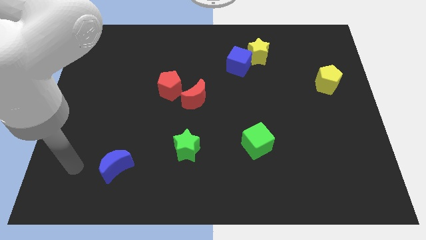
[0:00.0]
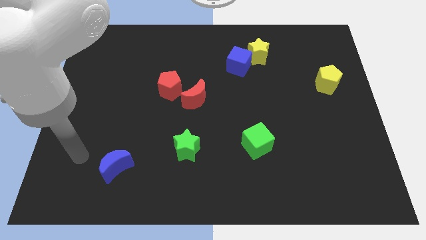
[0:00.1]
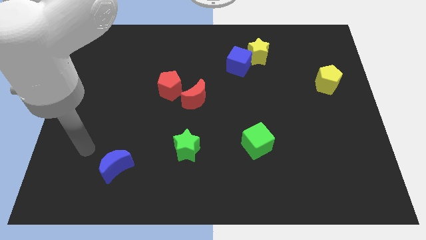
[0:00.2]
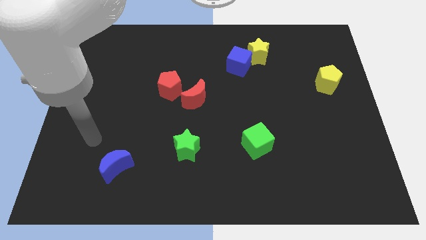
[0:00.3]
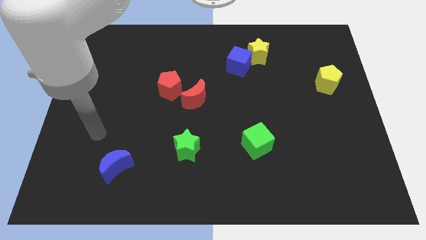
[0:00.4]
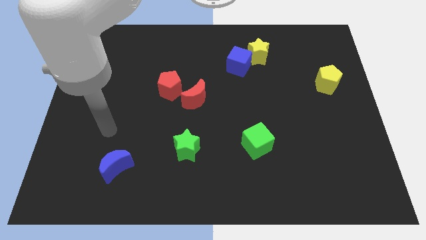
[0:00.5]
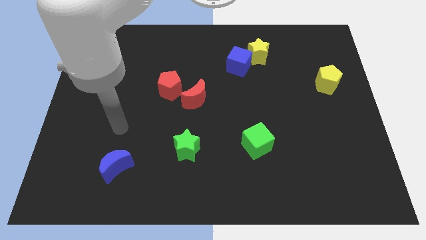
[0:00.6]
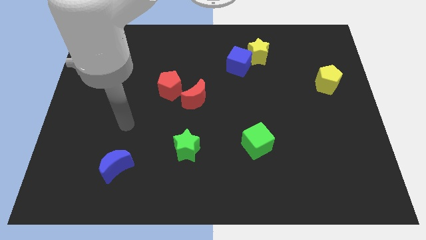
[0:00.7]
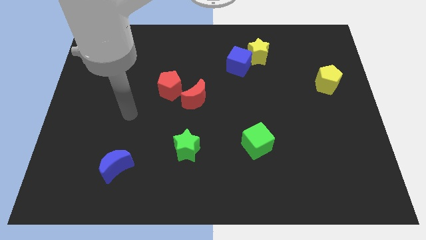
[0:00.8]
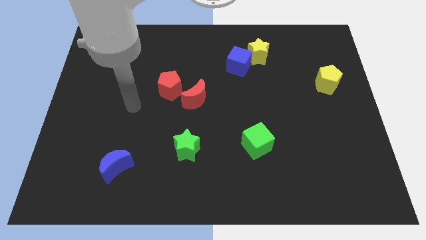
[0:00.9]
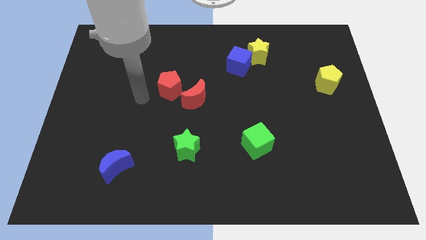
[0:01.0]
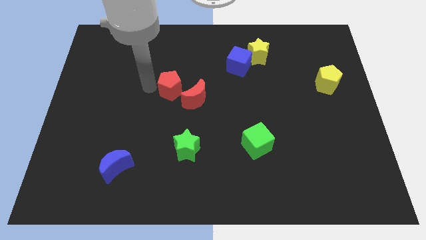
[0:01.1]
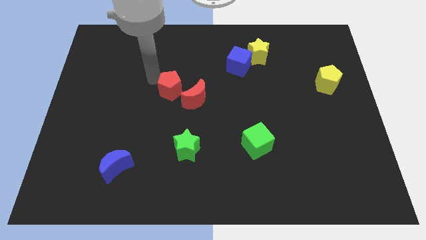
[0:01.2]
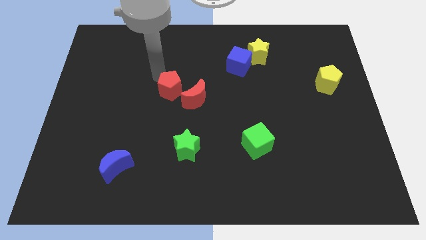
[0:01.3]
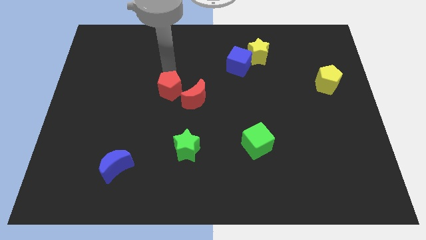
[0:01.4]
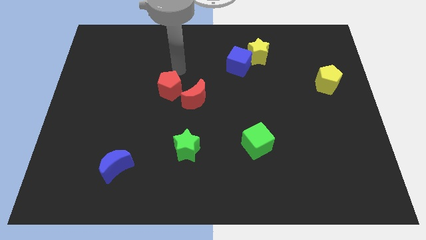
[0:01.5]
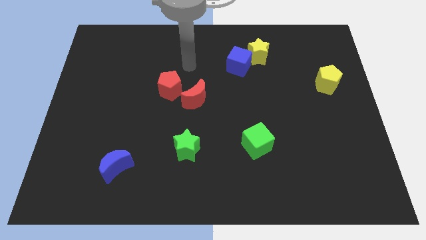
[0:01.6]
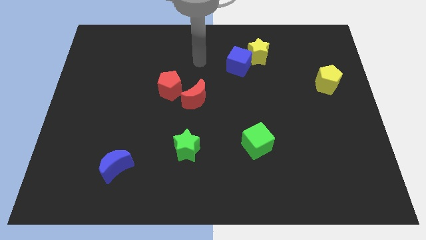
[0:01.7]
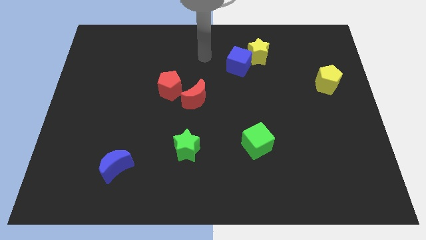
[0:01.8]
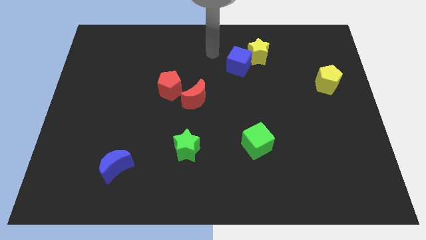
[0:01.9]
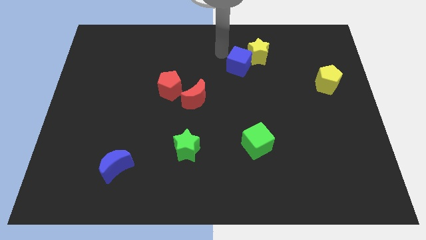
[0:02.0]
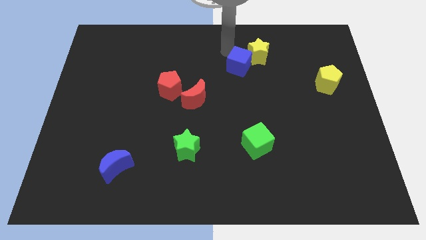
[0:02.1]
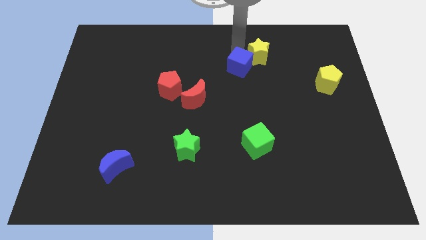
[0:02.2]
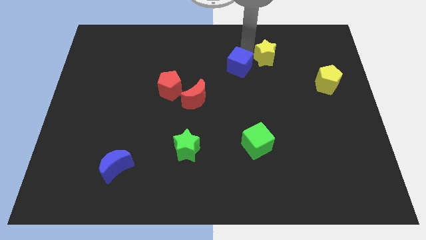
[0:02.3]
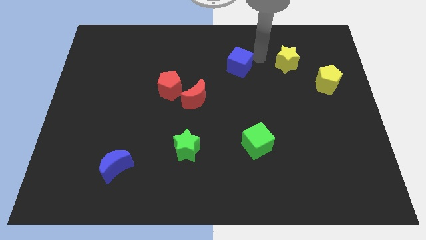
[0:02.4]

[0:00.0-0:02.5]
pull the blue cube apart from the yellow star

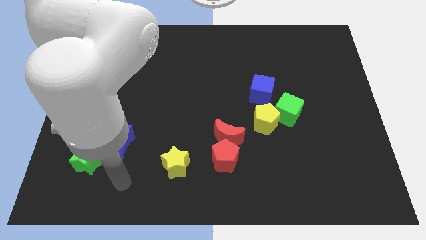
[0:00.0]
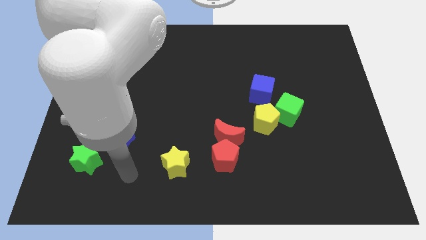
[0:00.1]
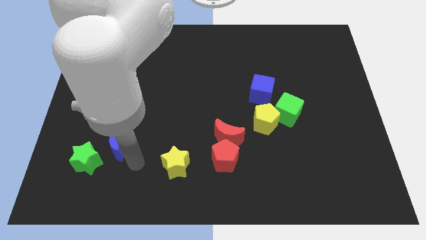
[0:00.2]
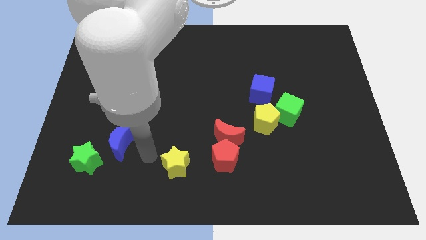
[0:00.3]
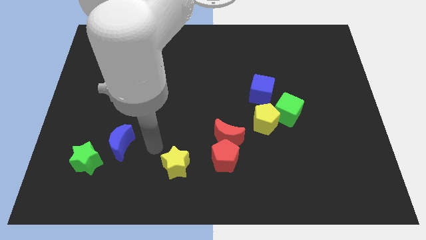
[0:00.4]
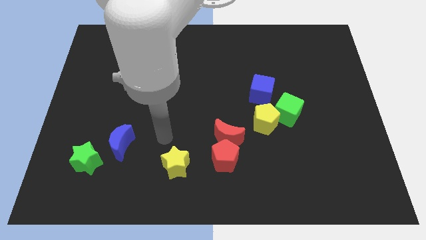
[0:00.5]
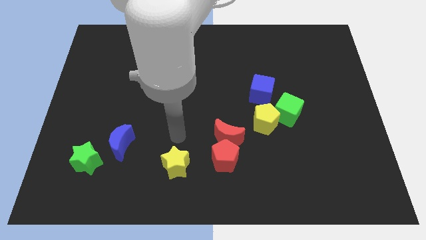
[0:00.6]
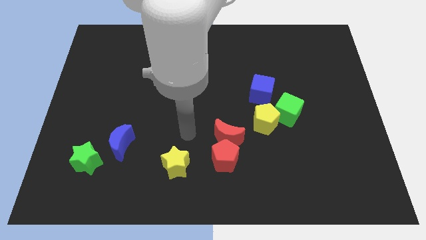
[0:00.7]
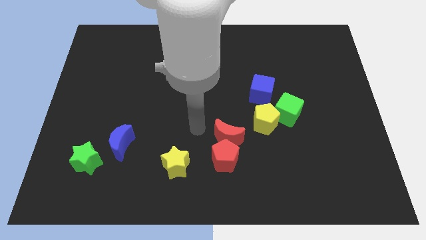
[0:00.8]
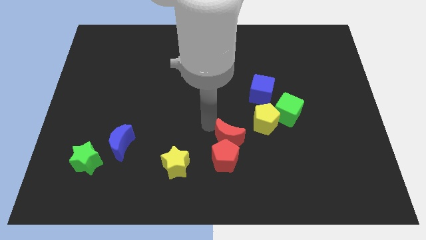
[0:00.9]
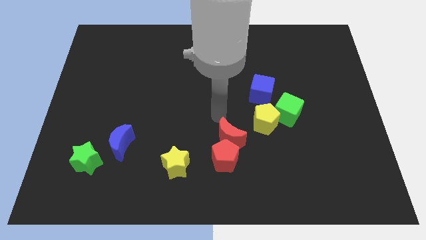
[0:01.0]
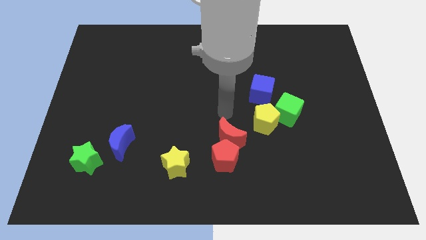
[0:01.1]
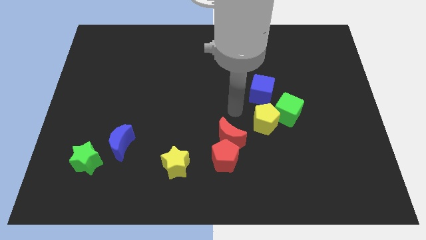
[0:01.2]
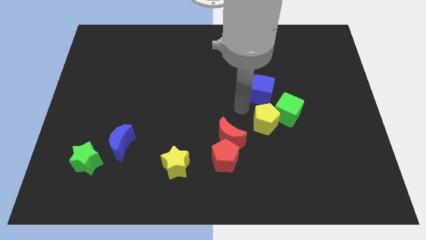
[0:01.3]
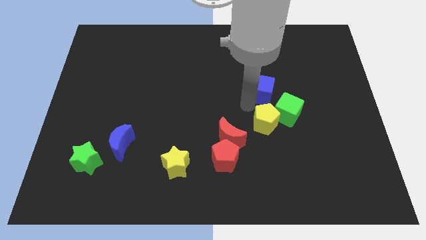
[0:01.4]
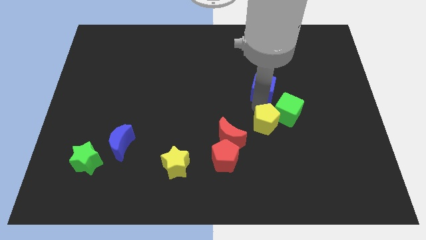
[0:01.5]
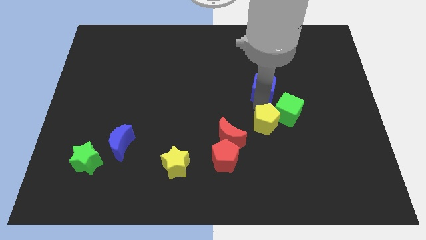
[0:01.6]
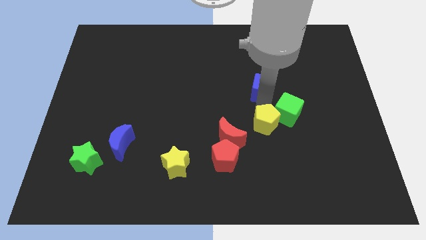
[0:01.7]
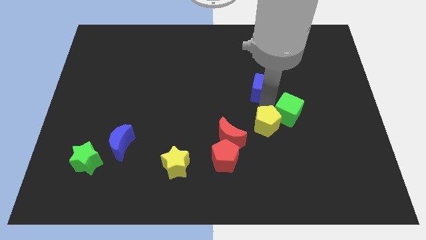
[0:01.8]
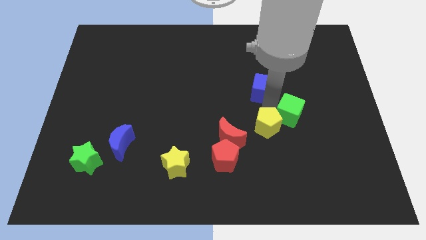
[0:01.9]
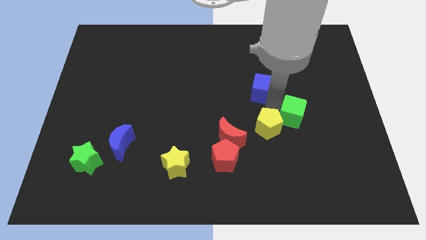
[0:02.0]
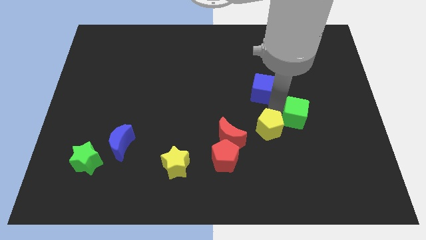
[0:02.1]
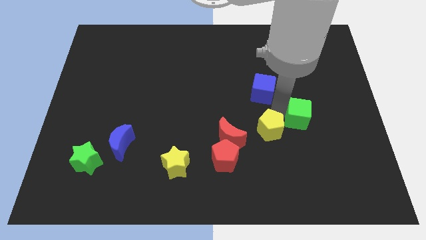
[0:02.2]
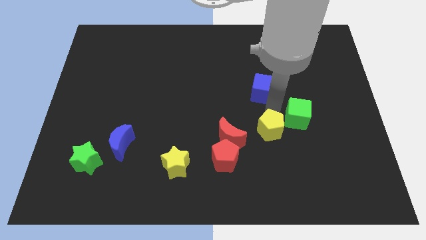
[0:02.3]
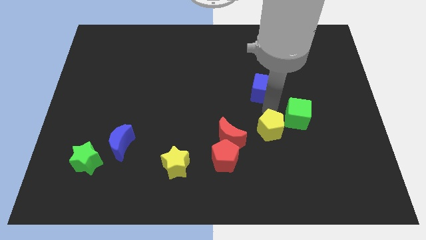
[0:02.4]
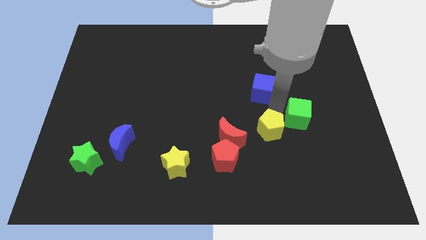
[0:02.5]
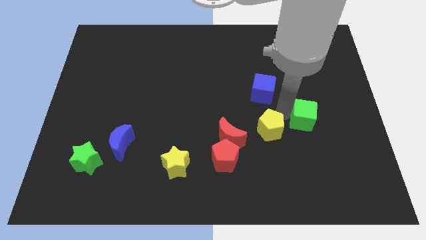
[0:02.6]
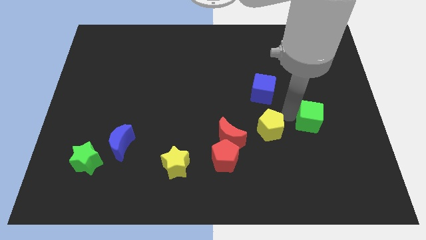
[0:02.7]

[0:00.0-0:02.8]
separate the green cube from the yellow pentagon and blue cube

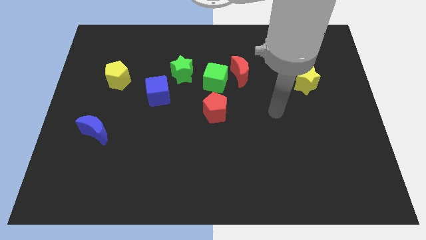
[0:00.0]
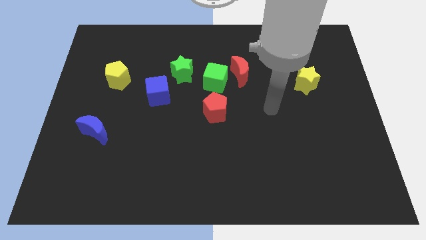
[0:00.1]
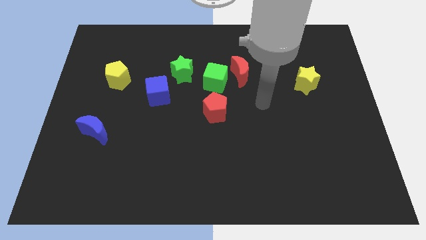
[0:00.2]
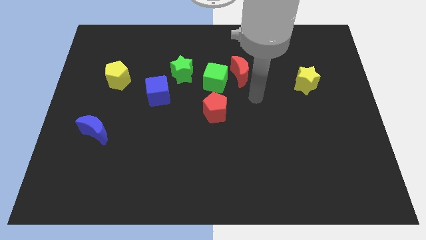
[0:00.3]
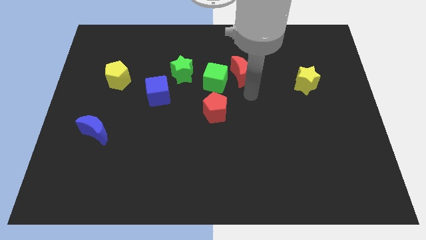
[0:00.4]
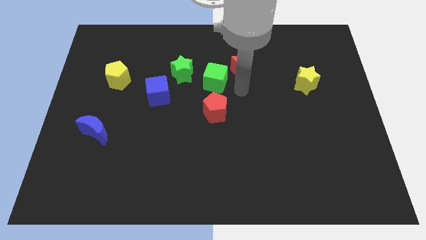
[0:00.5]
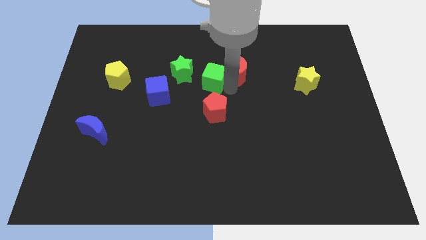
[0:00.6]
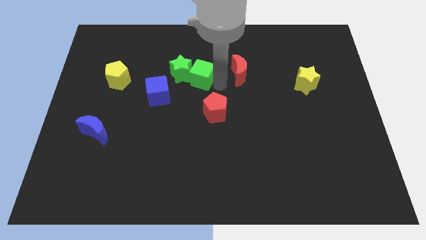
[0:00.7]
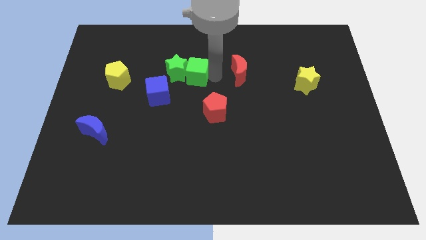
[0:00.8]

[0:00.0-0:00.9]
separate the red moon from the green cube

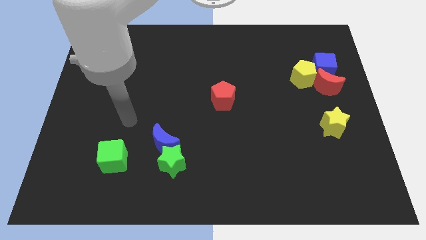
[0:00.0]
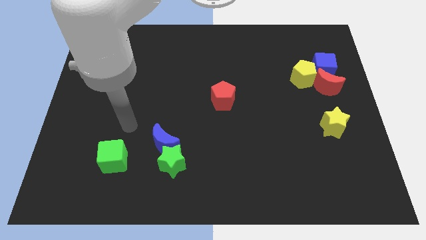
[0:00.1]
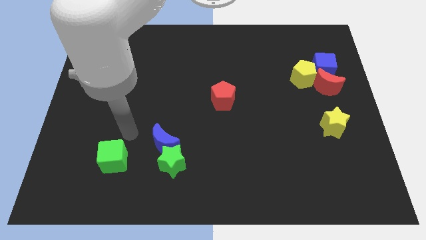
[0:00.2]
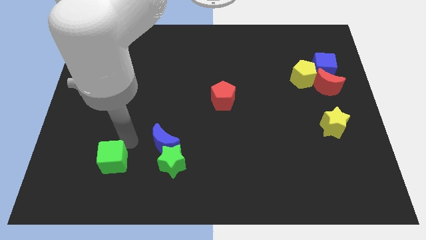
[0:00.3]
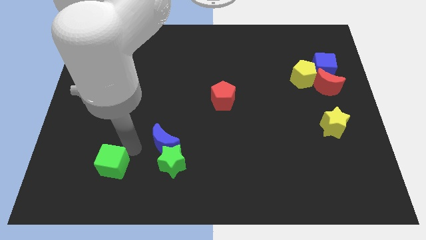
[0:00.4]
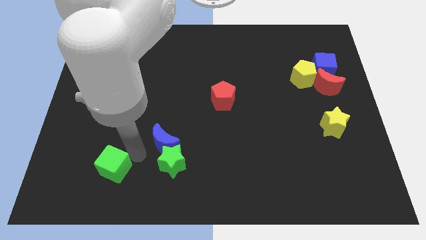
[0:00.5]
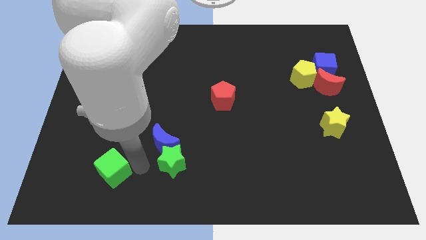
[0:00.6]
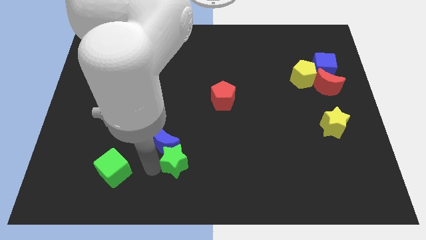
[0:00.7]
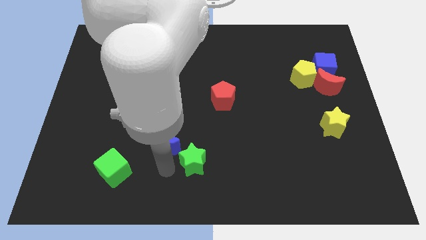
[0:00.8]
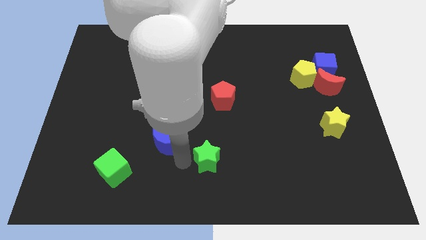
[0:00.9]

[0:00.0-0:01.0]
separate the blue moon from the green star

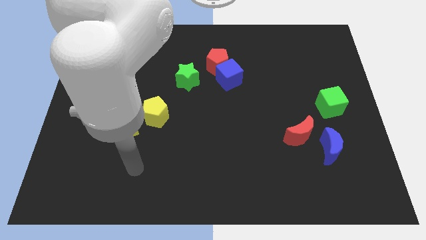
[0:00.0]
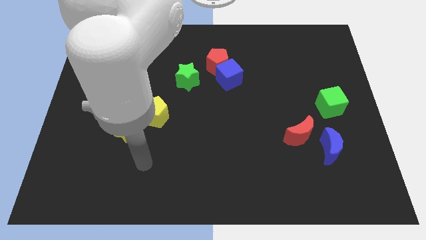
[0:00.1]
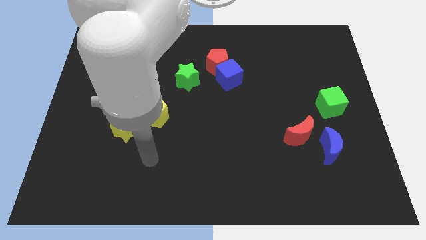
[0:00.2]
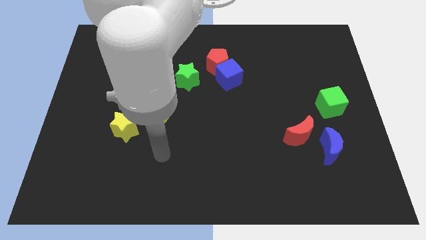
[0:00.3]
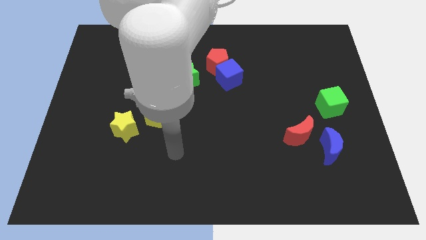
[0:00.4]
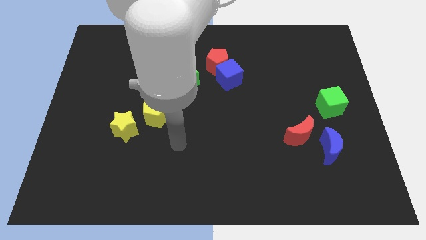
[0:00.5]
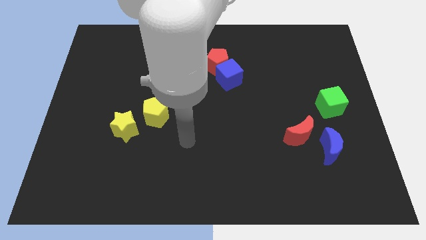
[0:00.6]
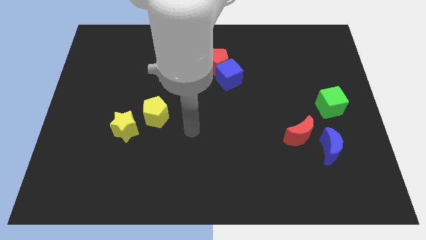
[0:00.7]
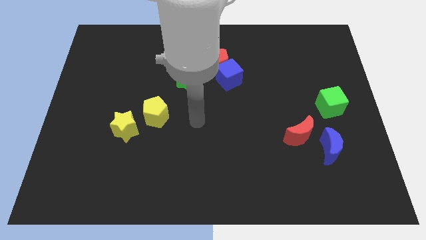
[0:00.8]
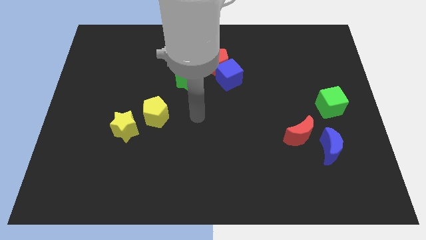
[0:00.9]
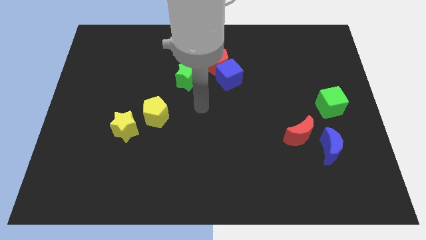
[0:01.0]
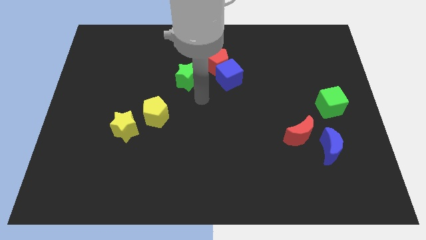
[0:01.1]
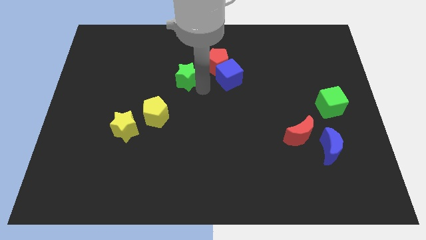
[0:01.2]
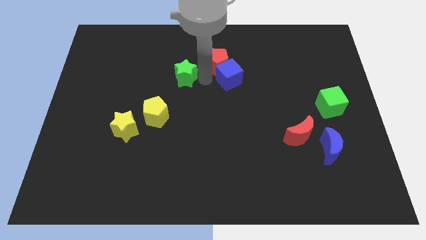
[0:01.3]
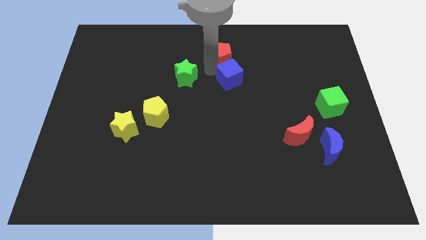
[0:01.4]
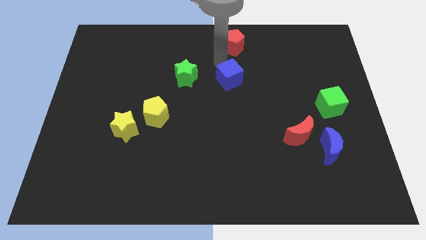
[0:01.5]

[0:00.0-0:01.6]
separate the blue cube from the red pentagon

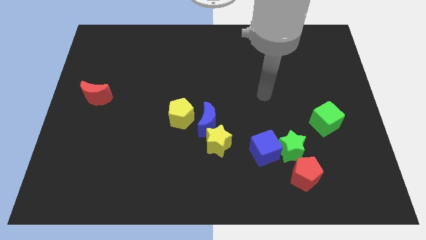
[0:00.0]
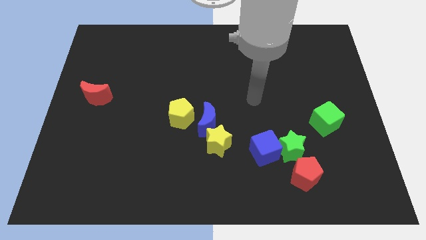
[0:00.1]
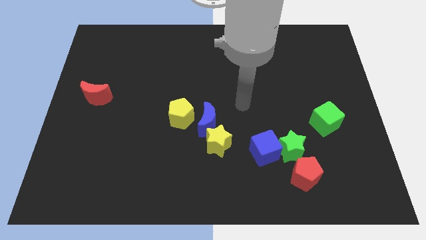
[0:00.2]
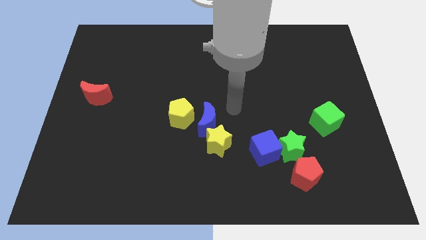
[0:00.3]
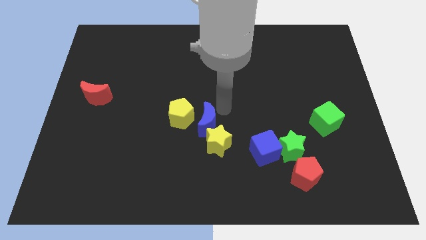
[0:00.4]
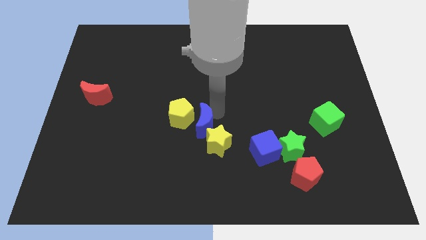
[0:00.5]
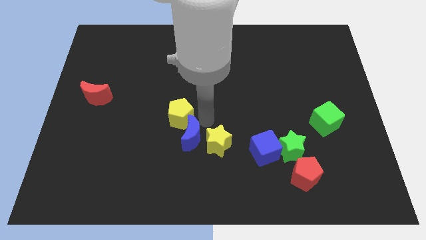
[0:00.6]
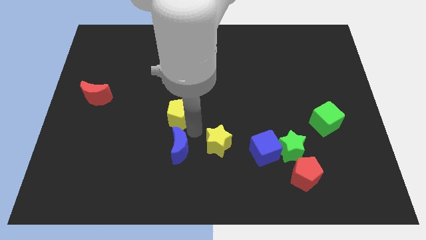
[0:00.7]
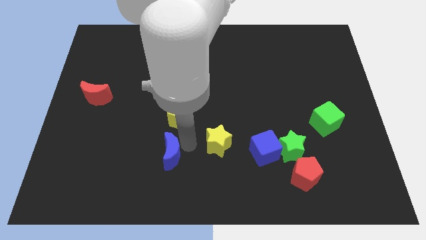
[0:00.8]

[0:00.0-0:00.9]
separate the yellow star from the blue moon
